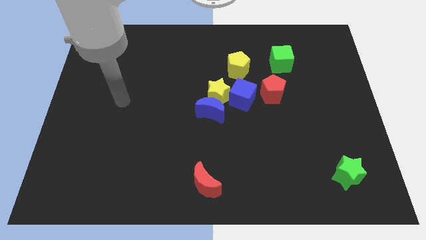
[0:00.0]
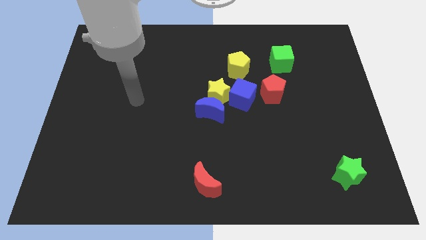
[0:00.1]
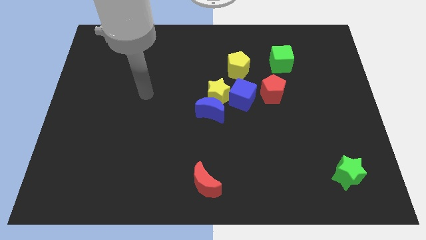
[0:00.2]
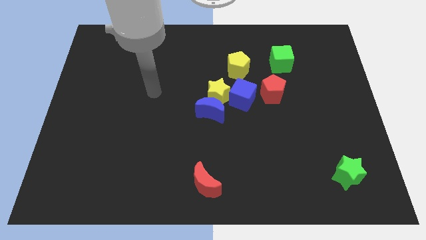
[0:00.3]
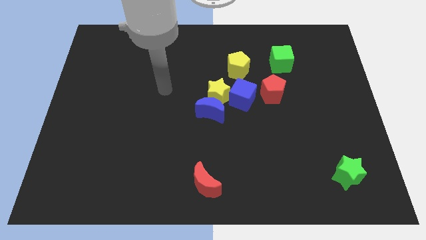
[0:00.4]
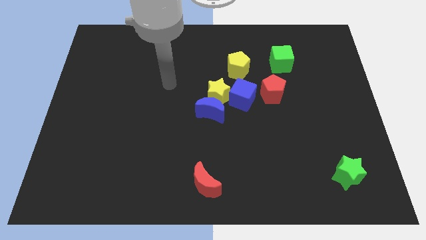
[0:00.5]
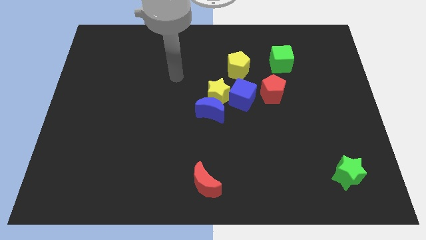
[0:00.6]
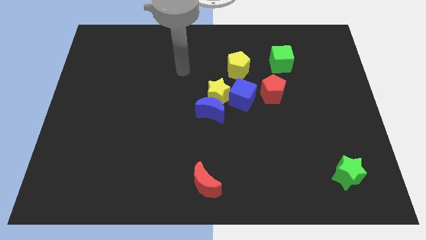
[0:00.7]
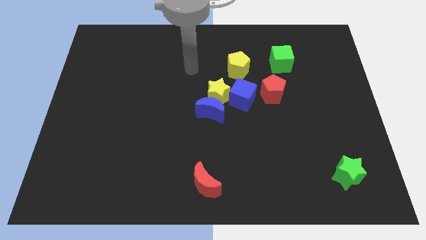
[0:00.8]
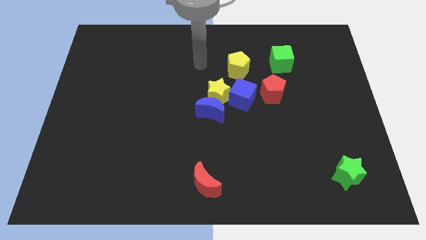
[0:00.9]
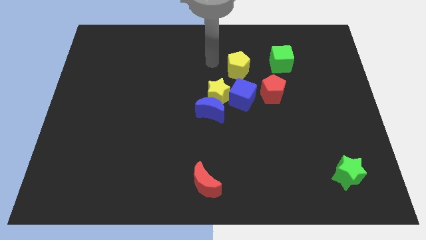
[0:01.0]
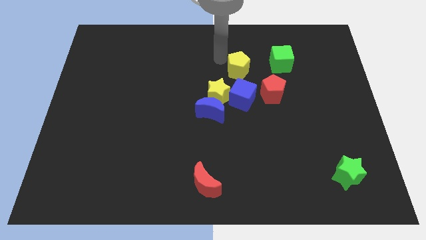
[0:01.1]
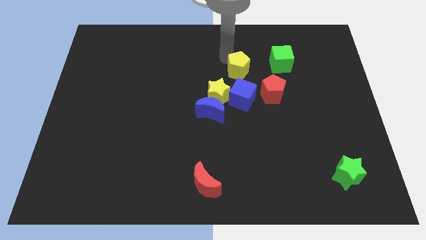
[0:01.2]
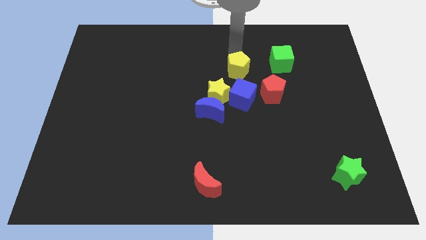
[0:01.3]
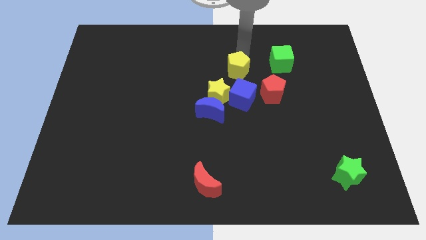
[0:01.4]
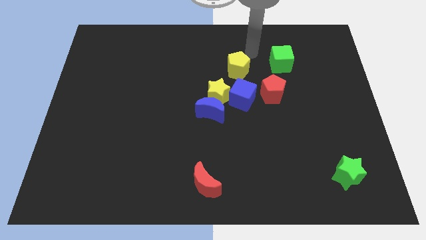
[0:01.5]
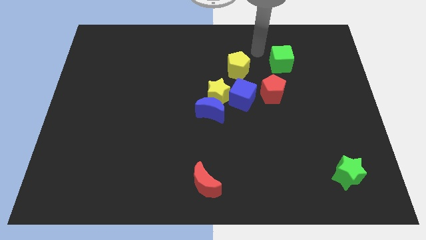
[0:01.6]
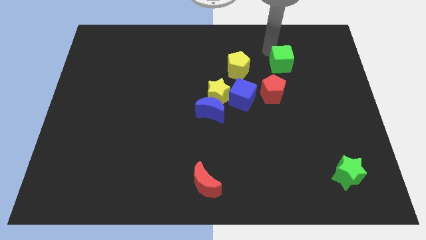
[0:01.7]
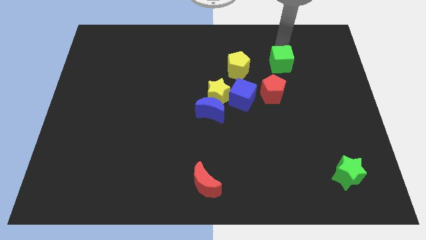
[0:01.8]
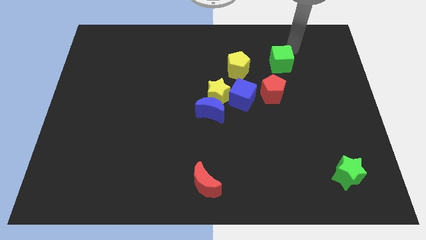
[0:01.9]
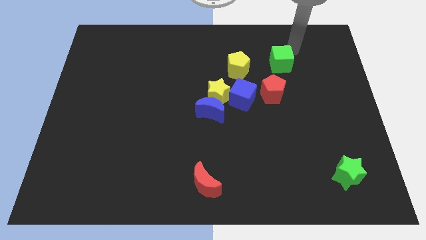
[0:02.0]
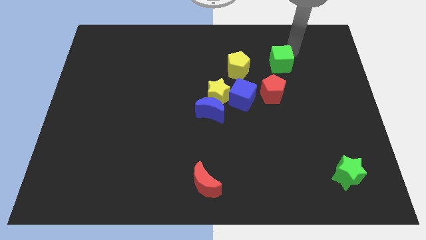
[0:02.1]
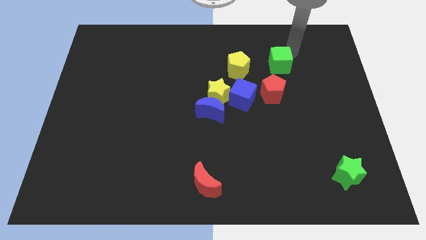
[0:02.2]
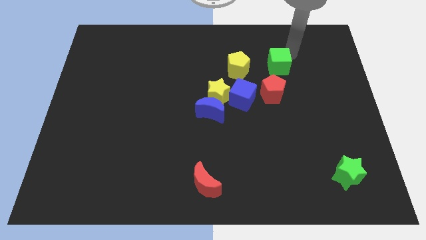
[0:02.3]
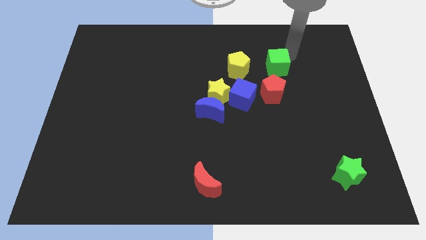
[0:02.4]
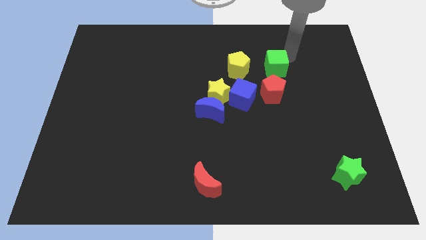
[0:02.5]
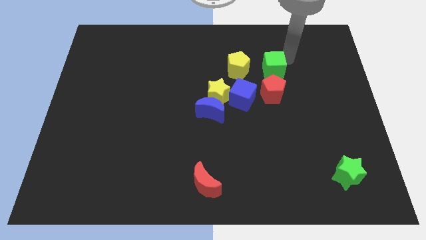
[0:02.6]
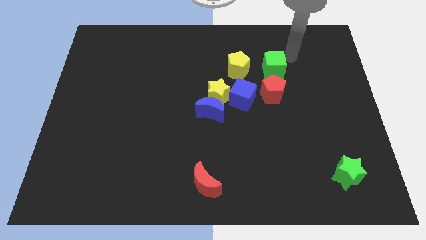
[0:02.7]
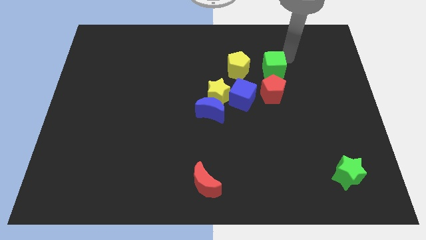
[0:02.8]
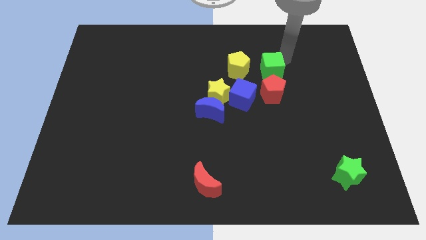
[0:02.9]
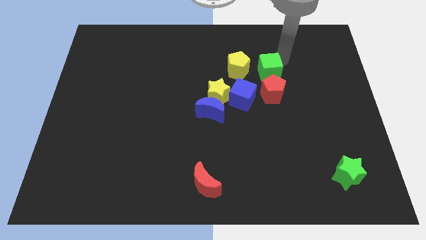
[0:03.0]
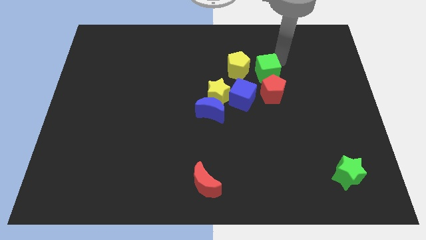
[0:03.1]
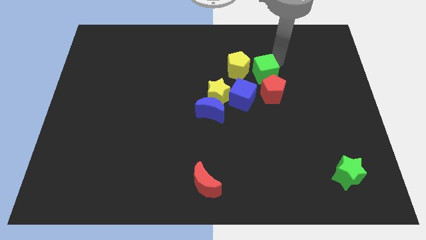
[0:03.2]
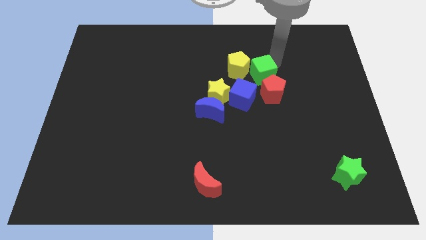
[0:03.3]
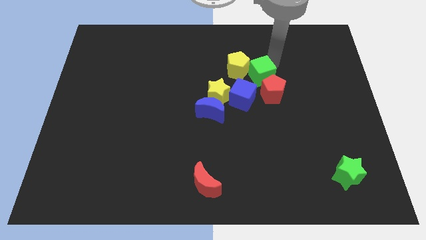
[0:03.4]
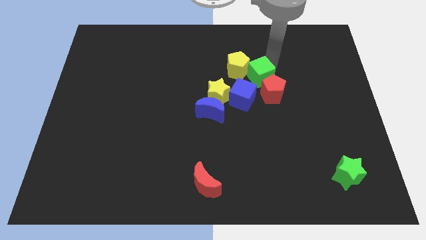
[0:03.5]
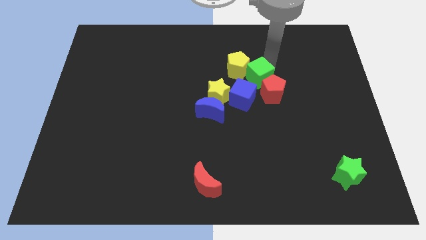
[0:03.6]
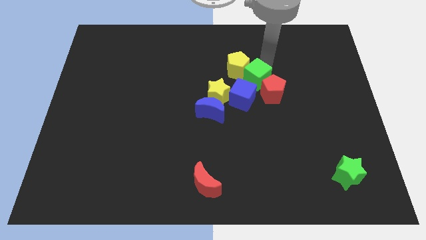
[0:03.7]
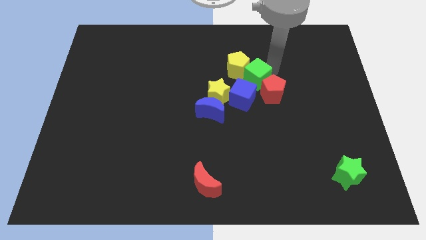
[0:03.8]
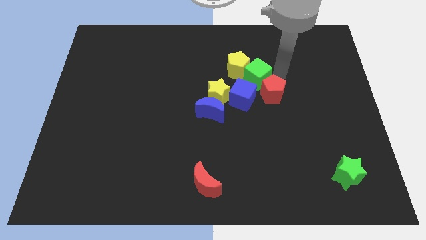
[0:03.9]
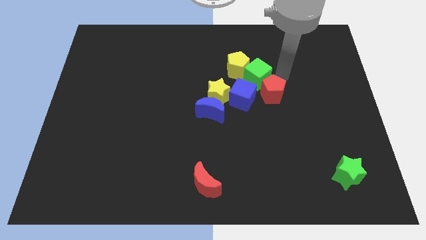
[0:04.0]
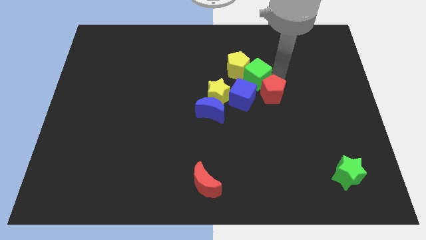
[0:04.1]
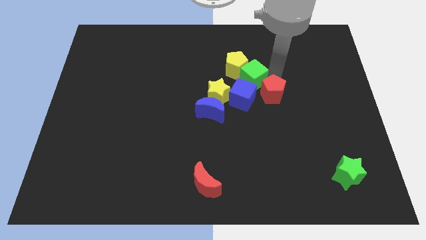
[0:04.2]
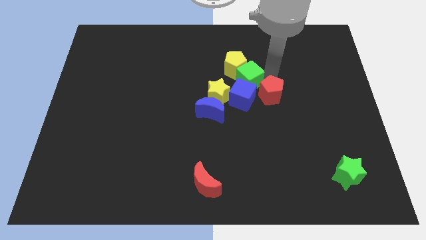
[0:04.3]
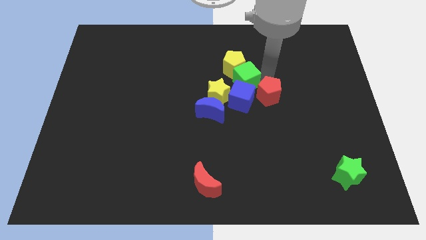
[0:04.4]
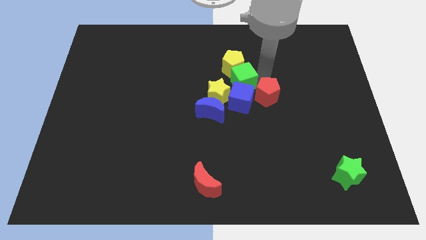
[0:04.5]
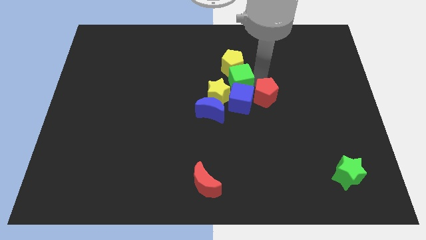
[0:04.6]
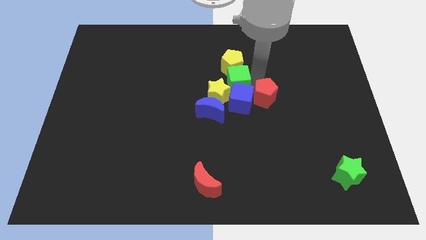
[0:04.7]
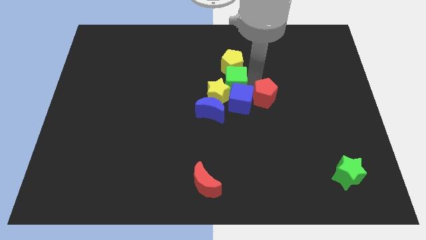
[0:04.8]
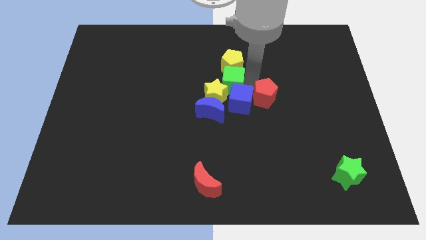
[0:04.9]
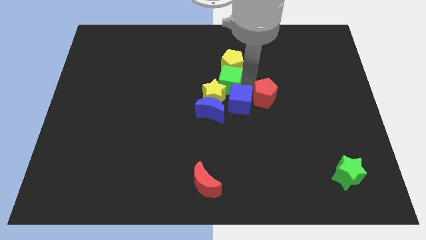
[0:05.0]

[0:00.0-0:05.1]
put the green cube above the blue moon

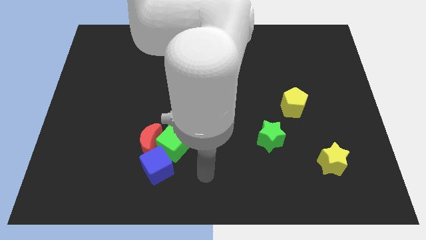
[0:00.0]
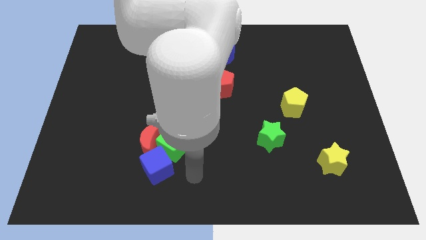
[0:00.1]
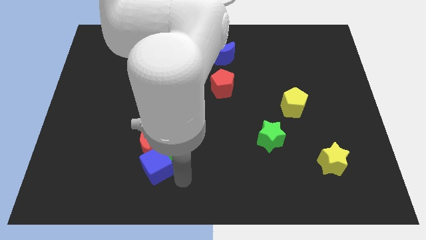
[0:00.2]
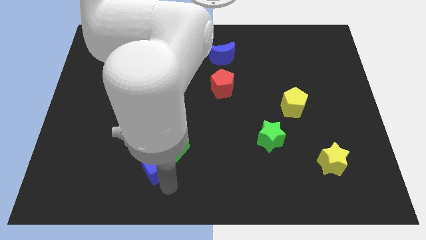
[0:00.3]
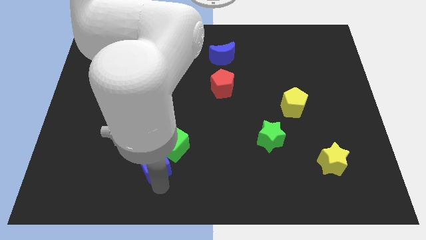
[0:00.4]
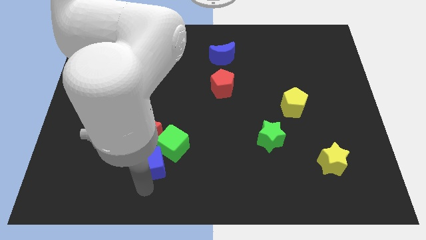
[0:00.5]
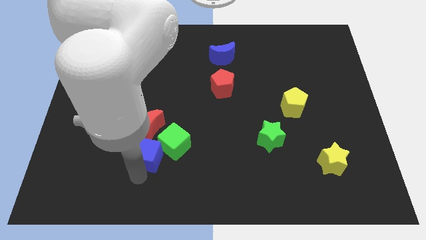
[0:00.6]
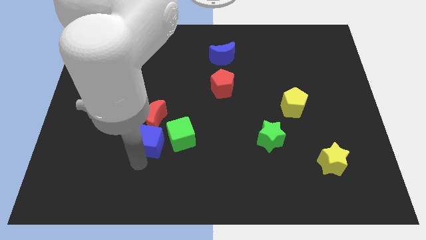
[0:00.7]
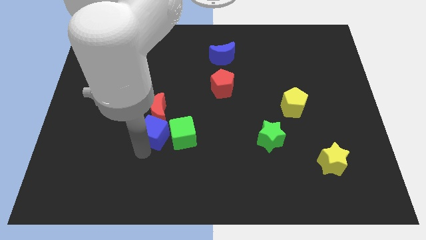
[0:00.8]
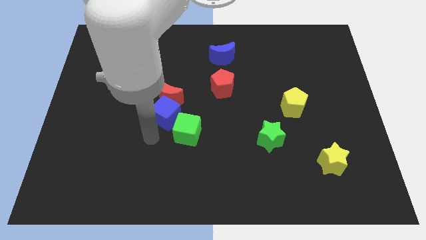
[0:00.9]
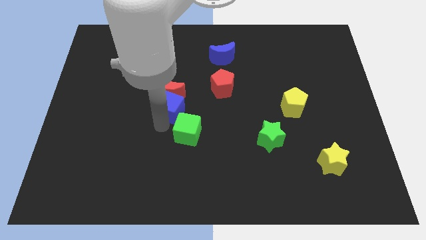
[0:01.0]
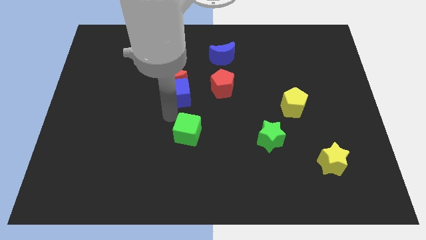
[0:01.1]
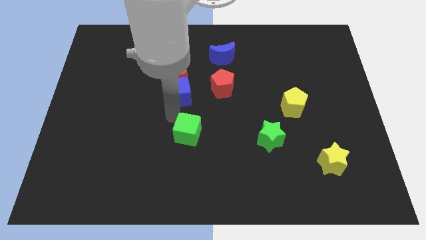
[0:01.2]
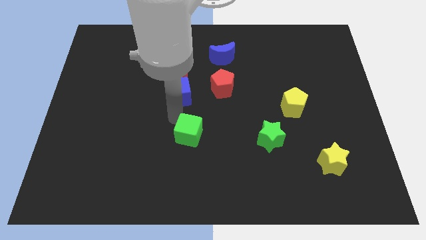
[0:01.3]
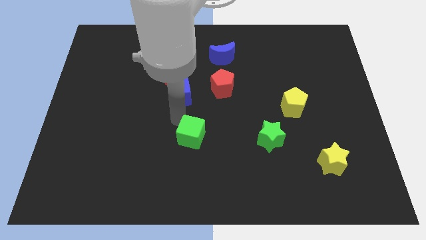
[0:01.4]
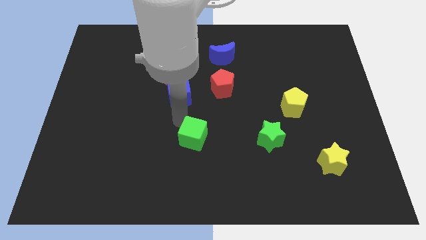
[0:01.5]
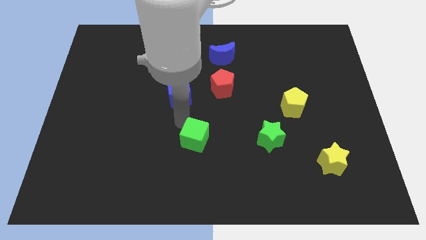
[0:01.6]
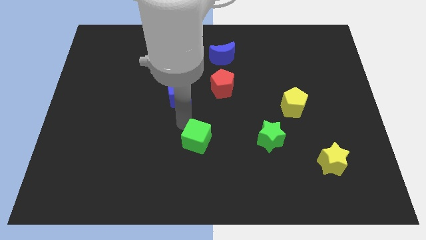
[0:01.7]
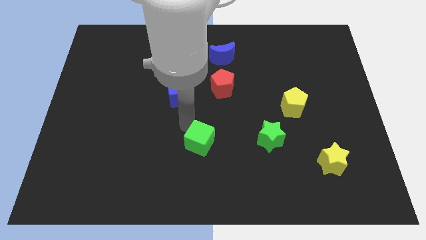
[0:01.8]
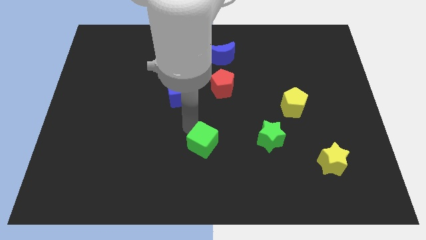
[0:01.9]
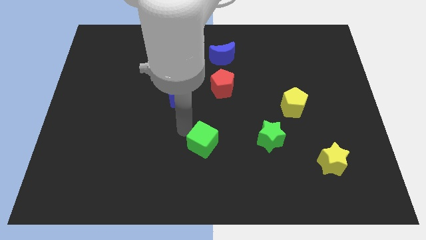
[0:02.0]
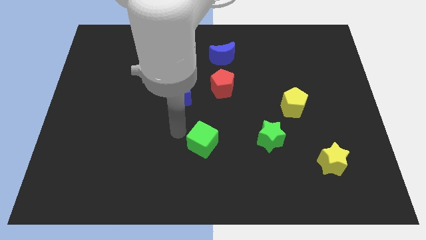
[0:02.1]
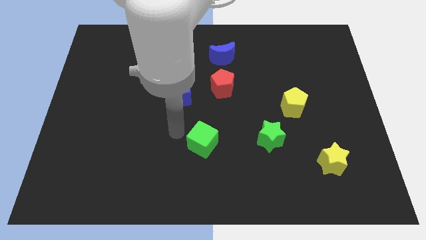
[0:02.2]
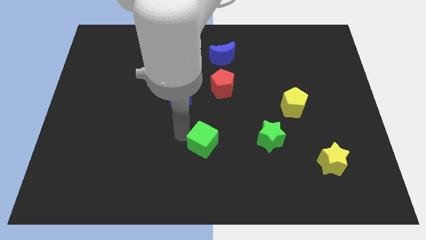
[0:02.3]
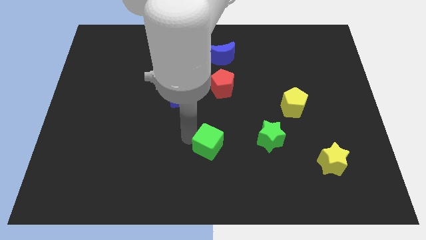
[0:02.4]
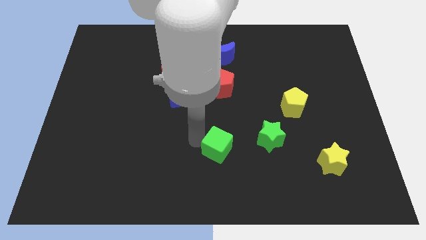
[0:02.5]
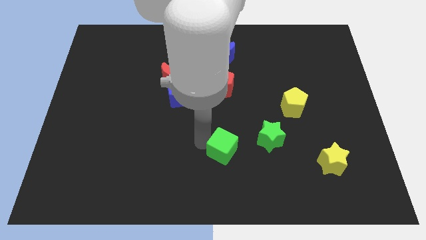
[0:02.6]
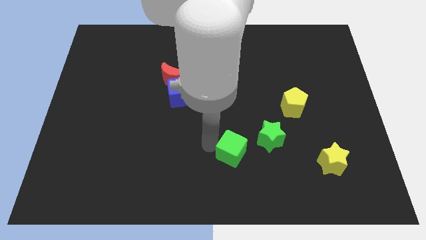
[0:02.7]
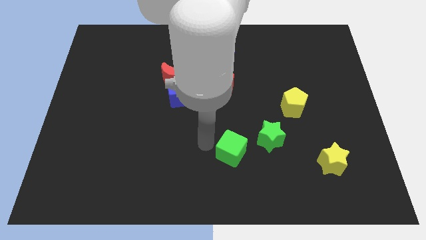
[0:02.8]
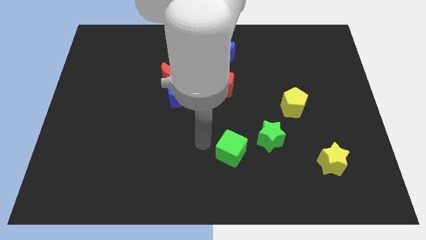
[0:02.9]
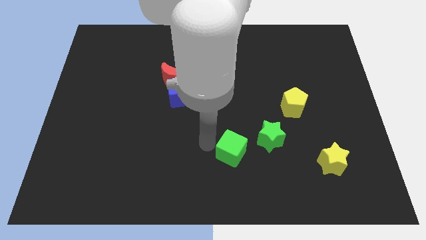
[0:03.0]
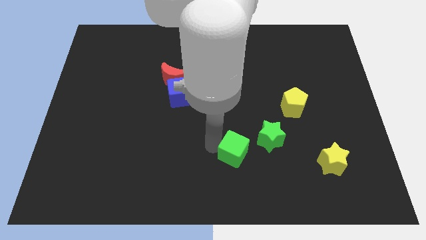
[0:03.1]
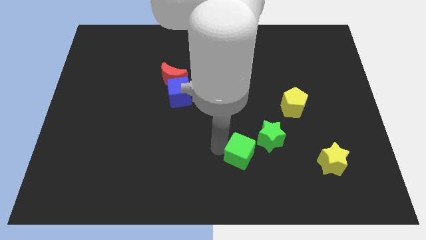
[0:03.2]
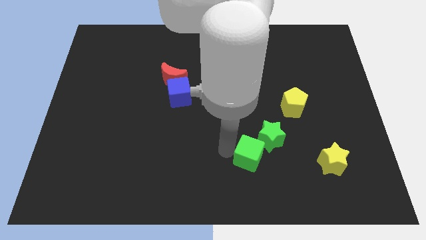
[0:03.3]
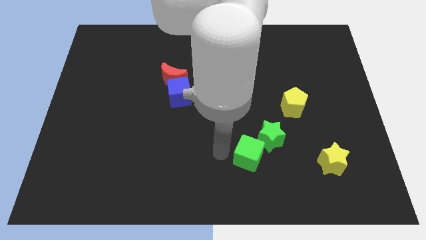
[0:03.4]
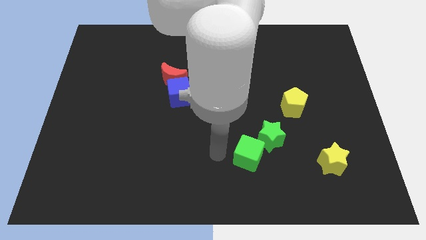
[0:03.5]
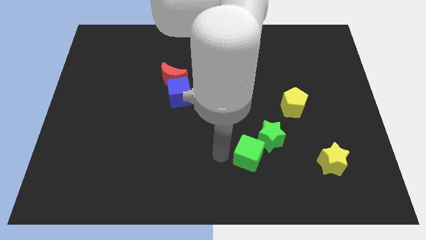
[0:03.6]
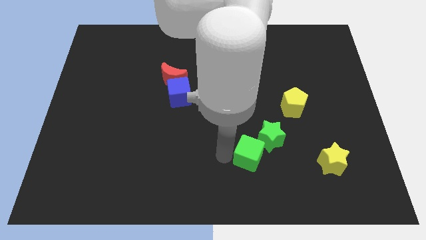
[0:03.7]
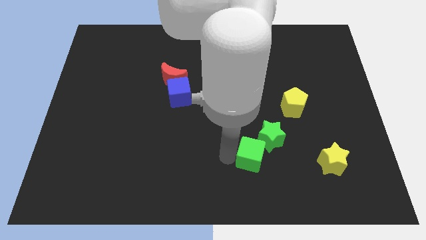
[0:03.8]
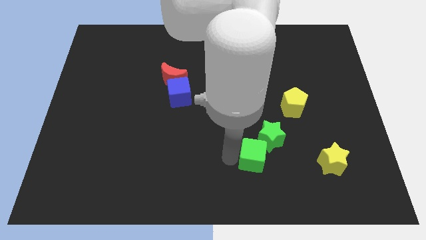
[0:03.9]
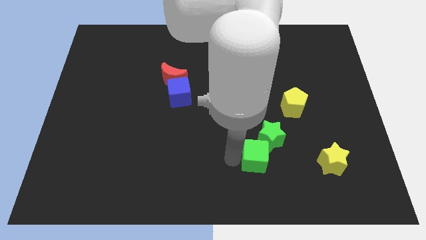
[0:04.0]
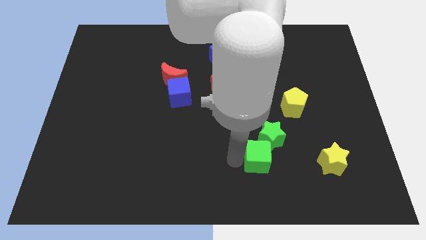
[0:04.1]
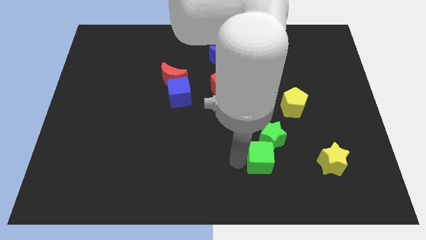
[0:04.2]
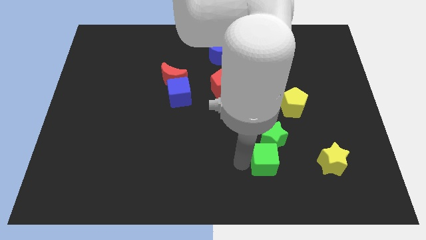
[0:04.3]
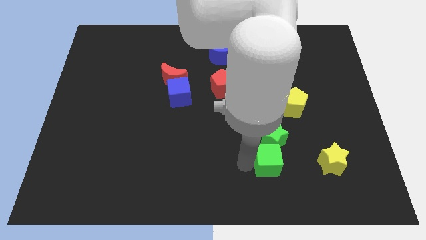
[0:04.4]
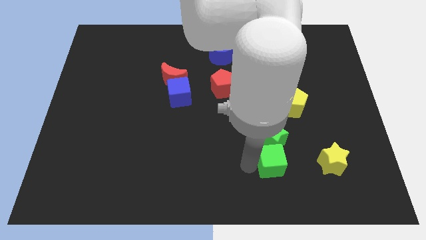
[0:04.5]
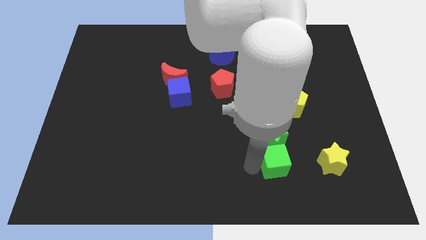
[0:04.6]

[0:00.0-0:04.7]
put the green cube to the bottom right of the green star
